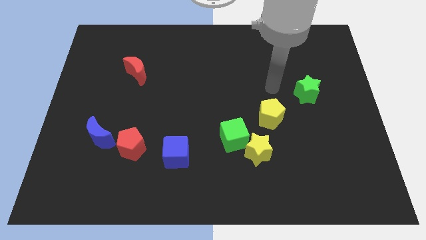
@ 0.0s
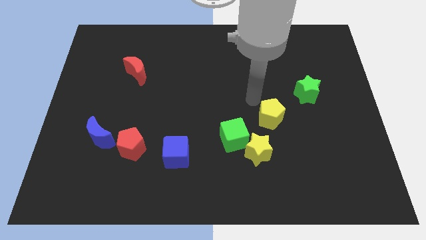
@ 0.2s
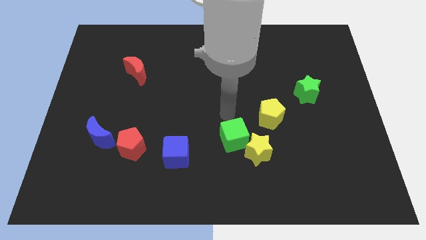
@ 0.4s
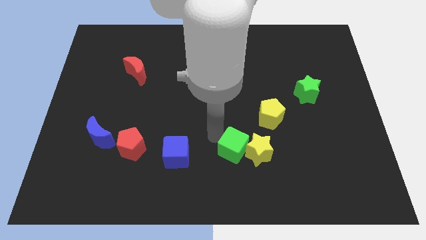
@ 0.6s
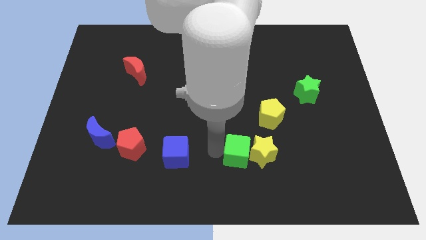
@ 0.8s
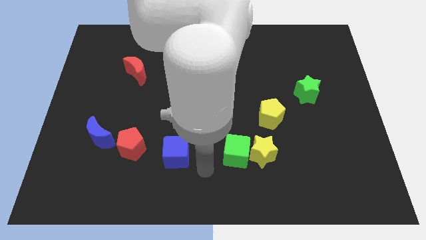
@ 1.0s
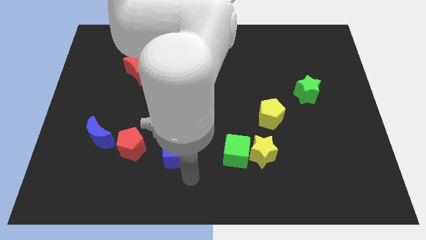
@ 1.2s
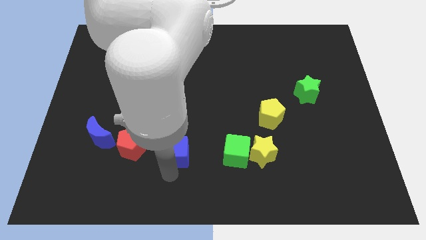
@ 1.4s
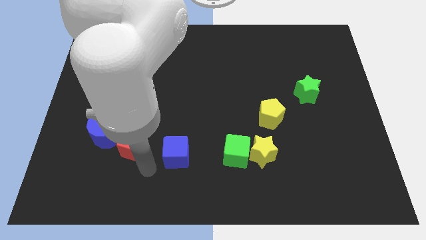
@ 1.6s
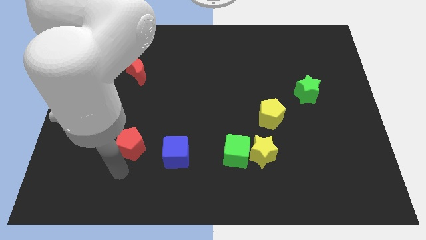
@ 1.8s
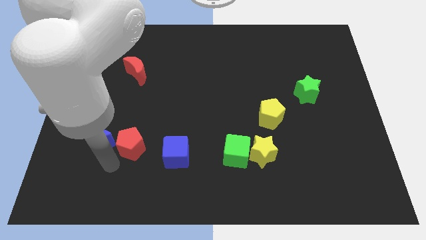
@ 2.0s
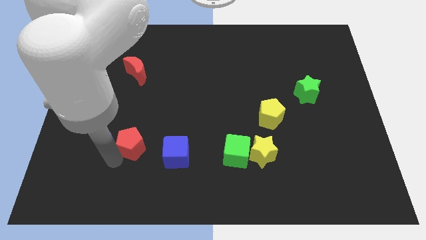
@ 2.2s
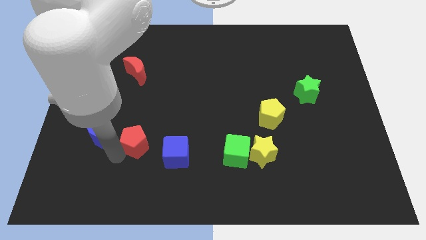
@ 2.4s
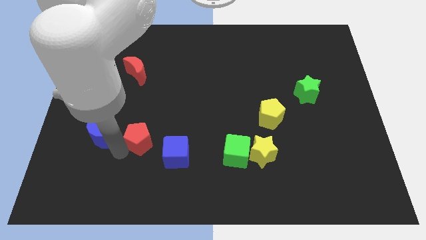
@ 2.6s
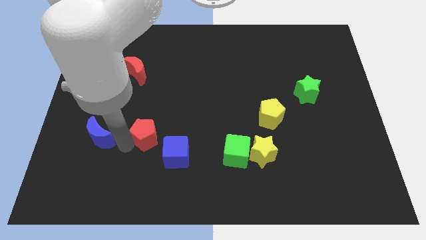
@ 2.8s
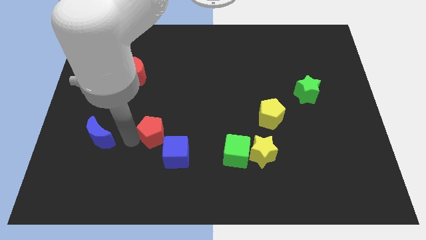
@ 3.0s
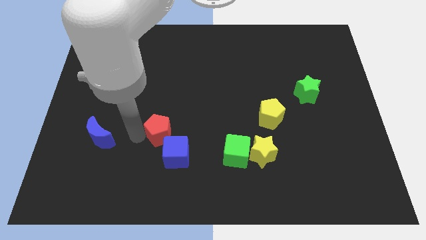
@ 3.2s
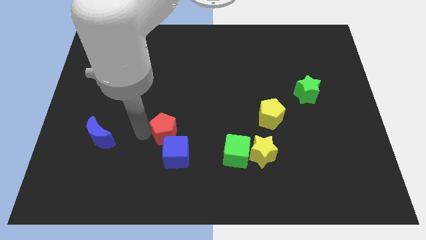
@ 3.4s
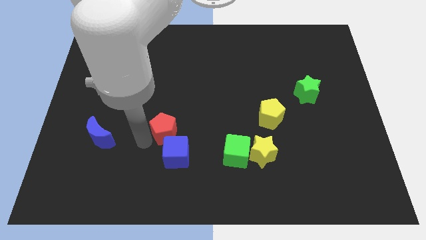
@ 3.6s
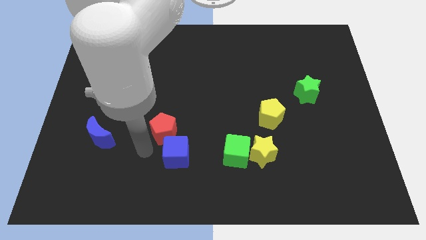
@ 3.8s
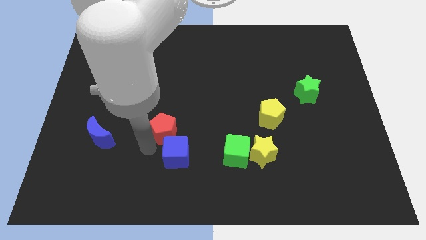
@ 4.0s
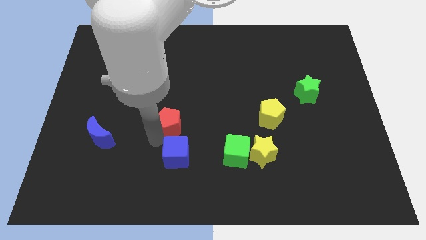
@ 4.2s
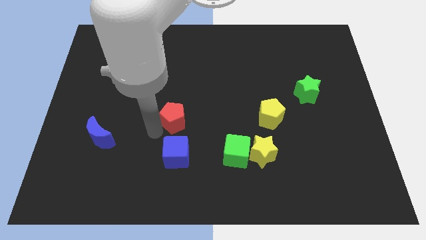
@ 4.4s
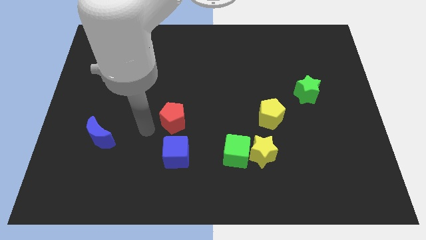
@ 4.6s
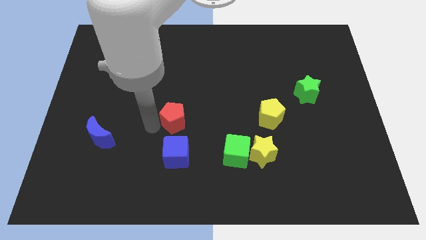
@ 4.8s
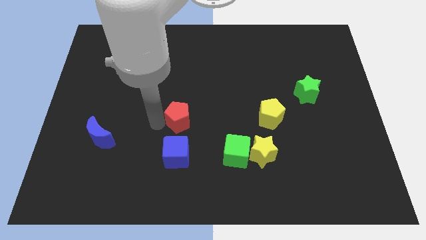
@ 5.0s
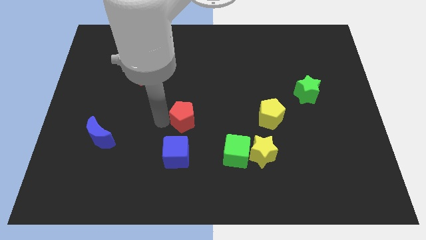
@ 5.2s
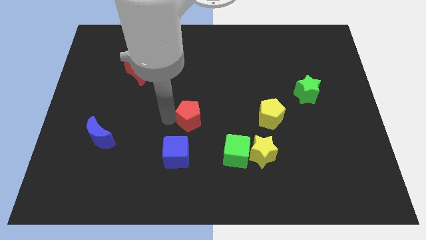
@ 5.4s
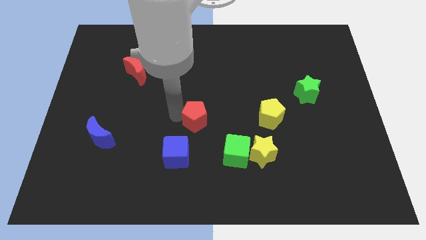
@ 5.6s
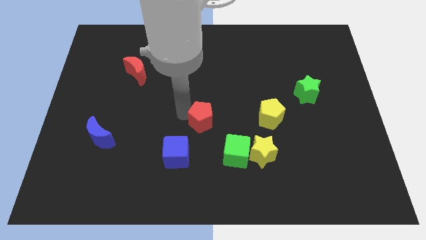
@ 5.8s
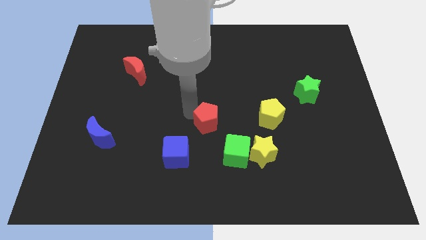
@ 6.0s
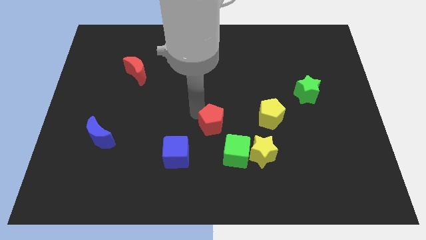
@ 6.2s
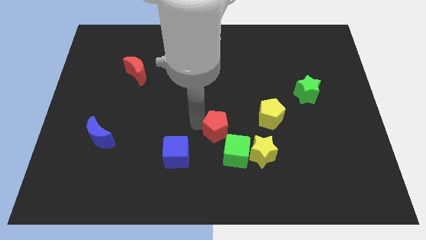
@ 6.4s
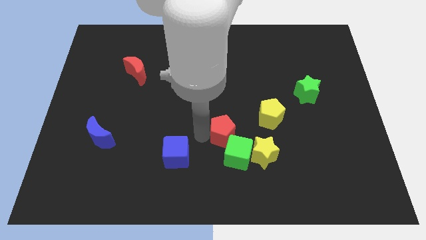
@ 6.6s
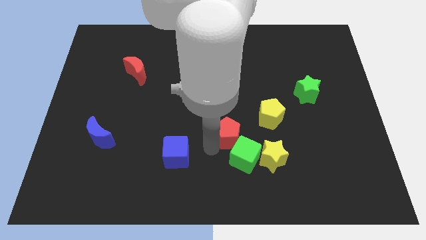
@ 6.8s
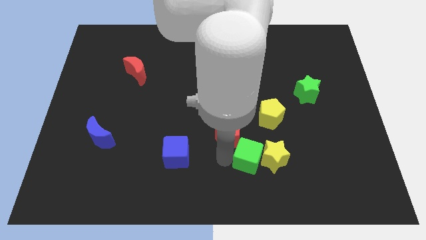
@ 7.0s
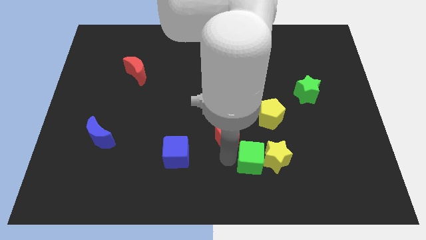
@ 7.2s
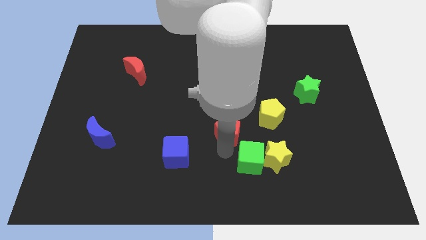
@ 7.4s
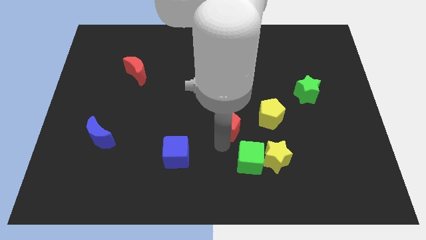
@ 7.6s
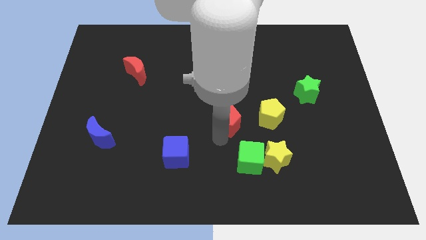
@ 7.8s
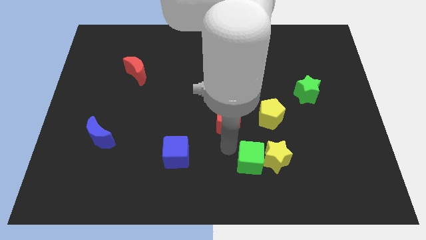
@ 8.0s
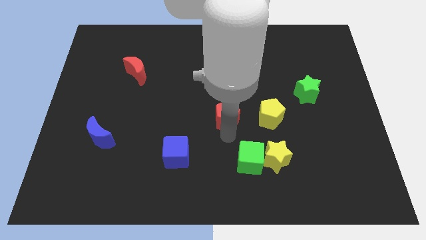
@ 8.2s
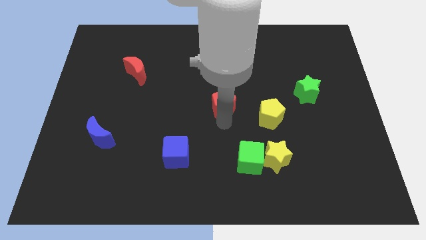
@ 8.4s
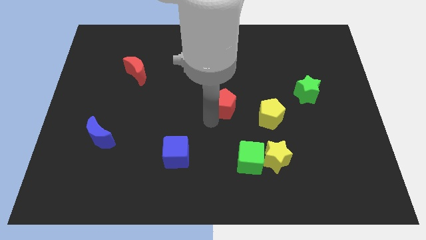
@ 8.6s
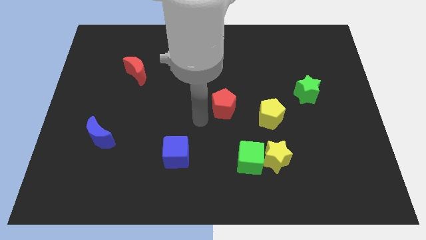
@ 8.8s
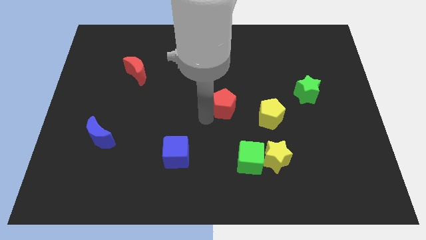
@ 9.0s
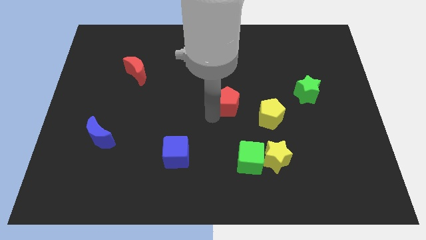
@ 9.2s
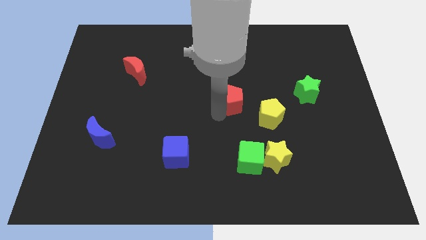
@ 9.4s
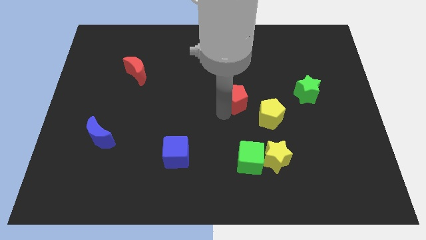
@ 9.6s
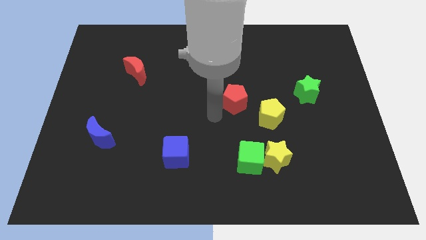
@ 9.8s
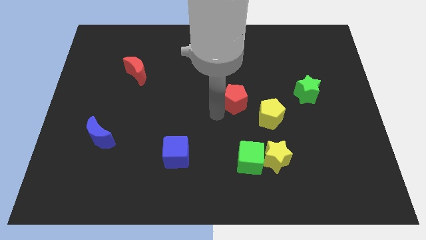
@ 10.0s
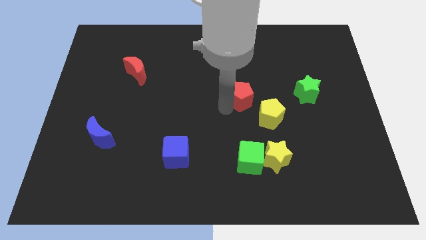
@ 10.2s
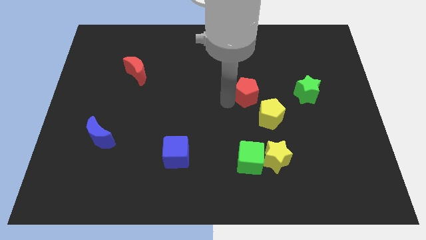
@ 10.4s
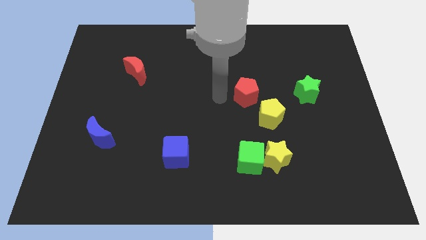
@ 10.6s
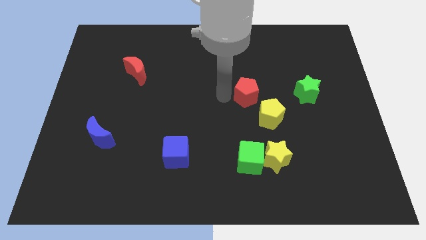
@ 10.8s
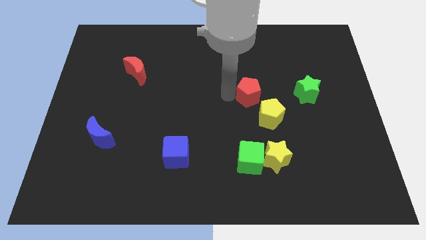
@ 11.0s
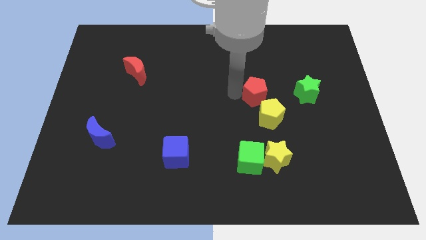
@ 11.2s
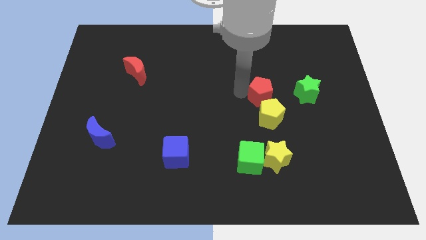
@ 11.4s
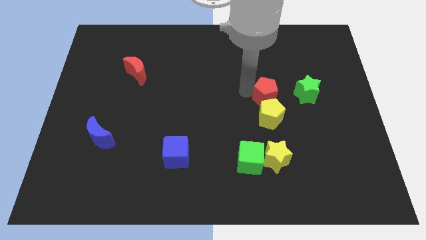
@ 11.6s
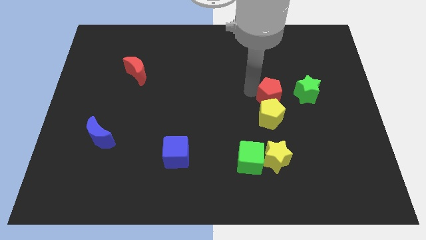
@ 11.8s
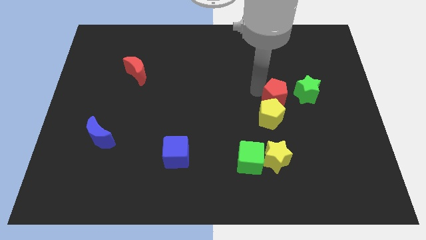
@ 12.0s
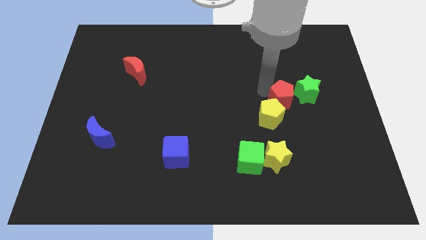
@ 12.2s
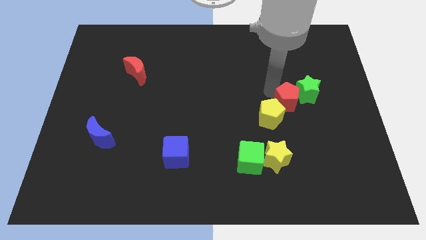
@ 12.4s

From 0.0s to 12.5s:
move the red pentagon next to the green star
